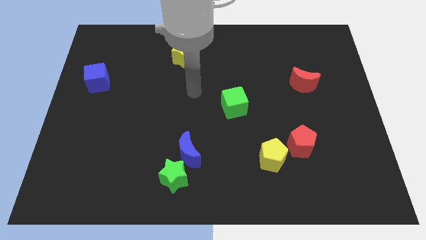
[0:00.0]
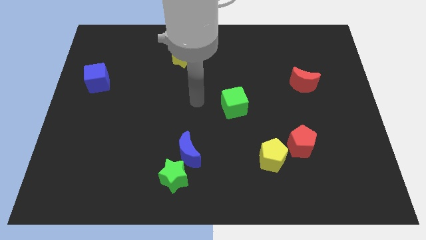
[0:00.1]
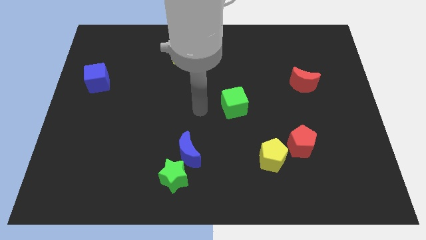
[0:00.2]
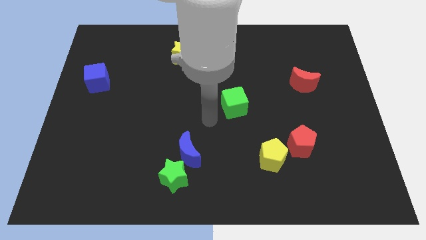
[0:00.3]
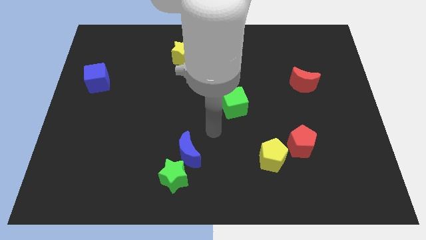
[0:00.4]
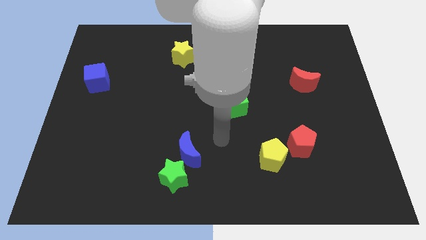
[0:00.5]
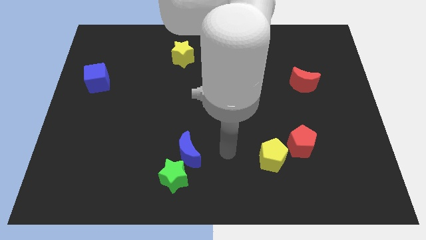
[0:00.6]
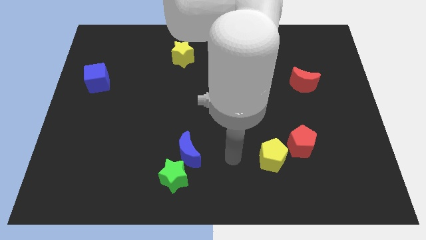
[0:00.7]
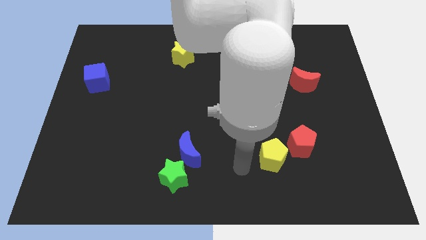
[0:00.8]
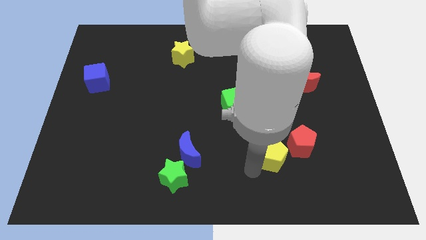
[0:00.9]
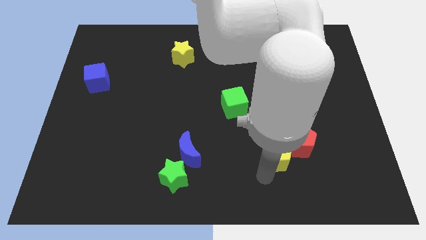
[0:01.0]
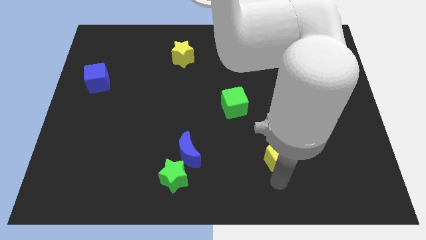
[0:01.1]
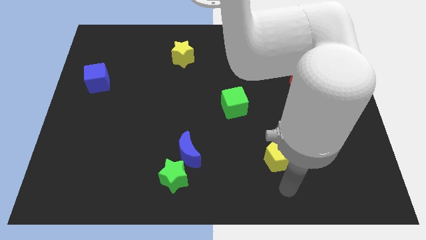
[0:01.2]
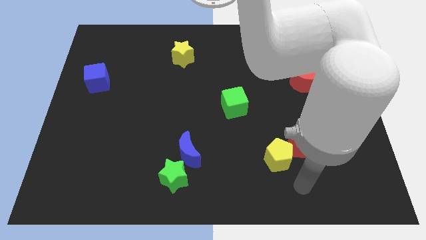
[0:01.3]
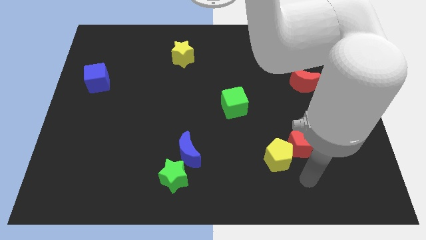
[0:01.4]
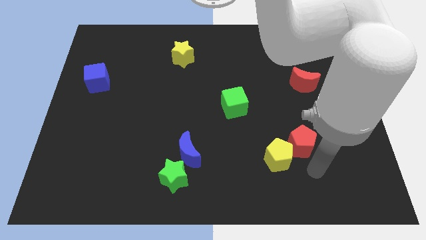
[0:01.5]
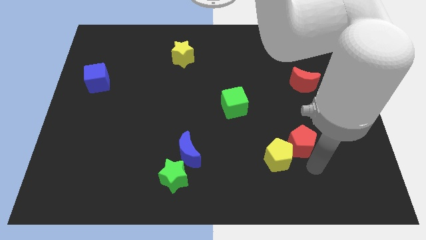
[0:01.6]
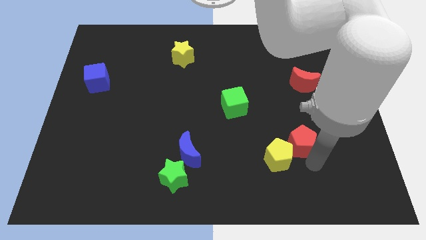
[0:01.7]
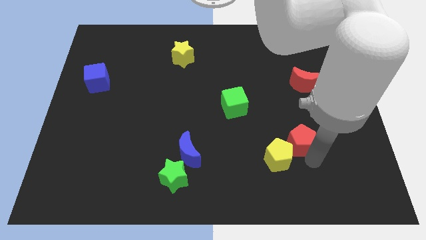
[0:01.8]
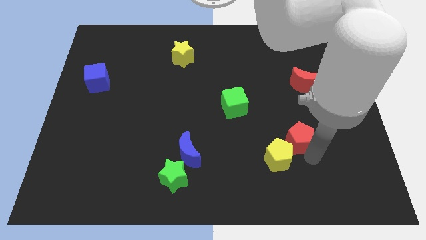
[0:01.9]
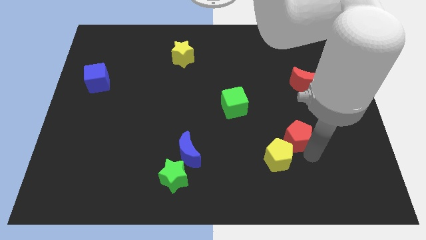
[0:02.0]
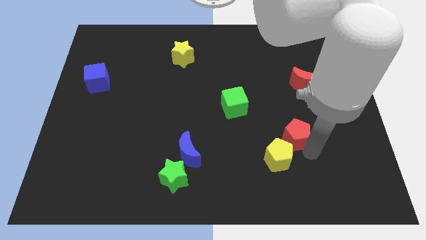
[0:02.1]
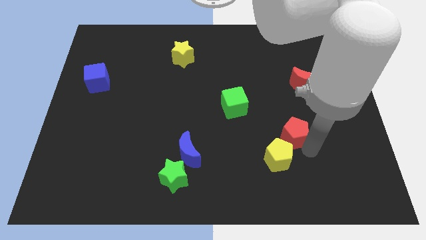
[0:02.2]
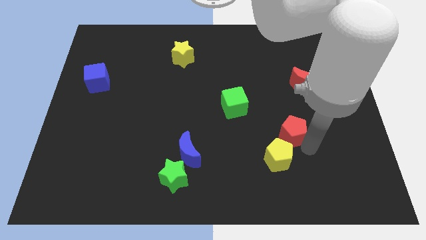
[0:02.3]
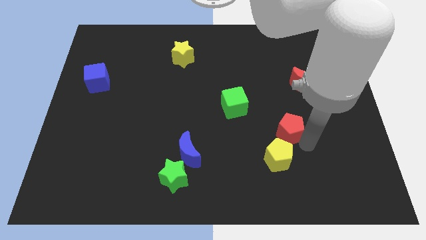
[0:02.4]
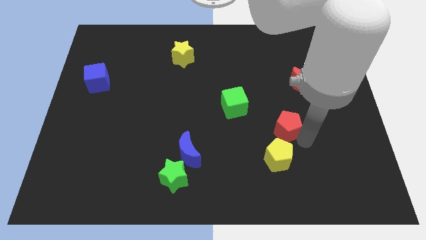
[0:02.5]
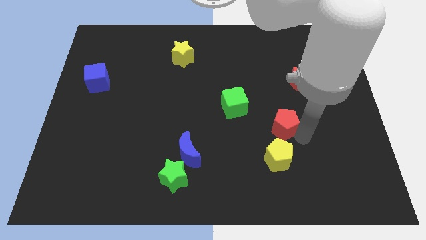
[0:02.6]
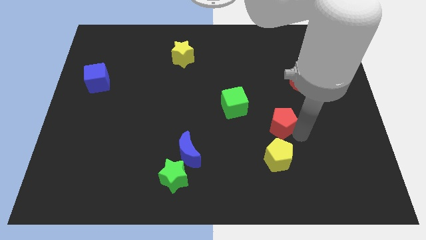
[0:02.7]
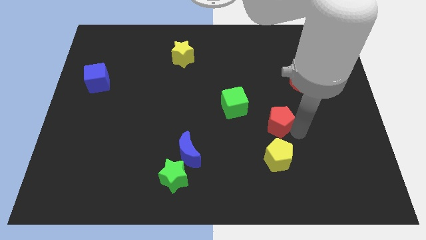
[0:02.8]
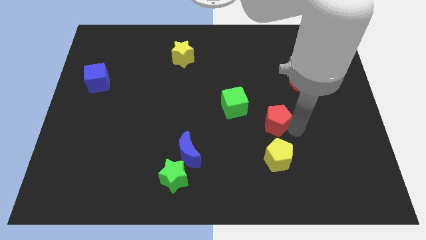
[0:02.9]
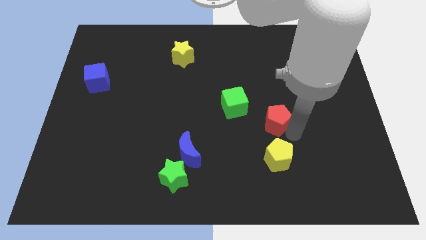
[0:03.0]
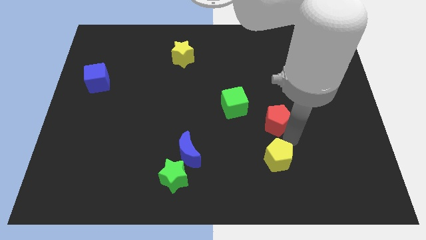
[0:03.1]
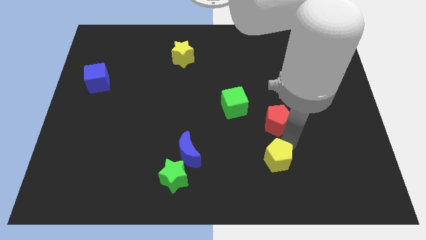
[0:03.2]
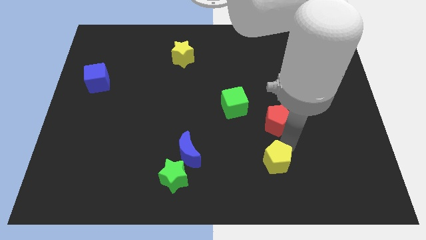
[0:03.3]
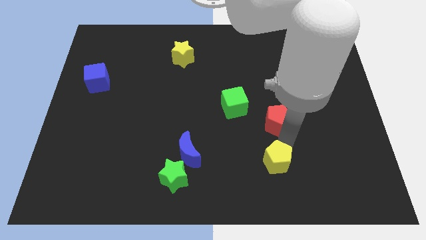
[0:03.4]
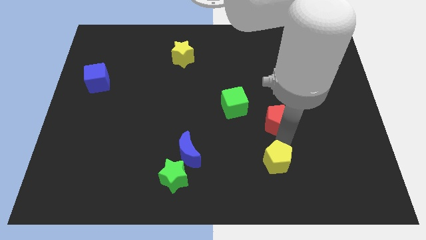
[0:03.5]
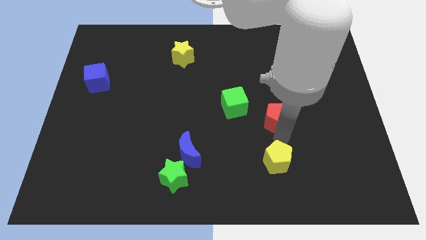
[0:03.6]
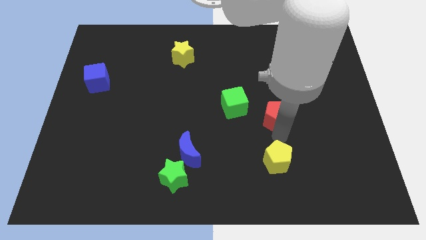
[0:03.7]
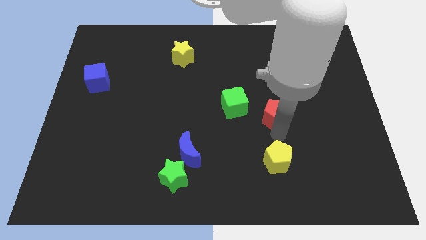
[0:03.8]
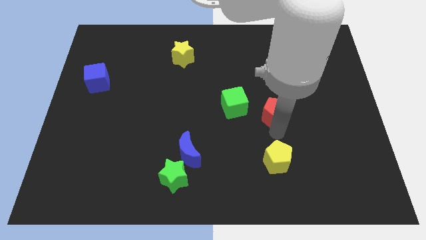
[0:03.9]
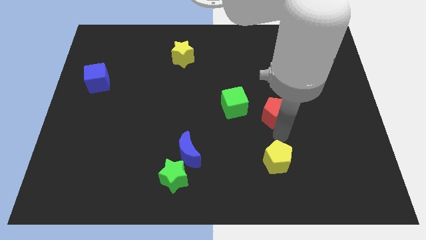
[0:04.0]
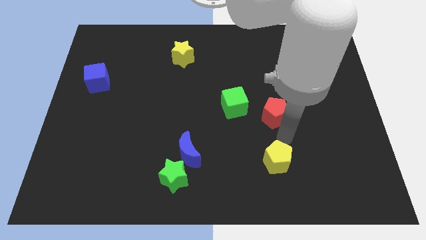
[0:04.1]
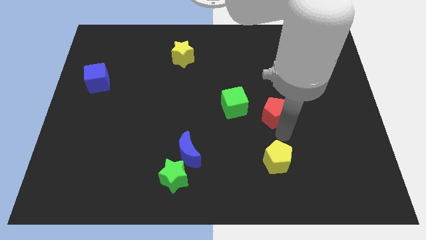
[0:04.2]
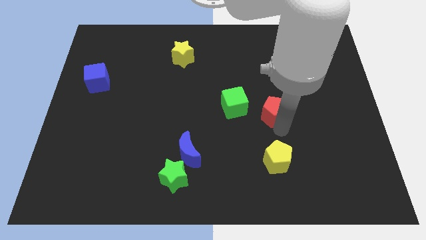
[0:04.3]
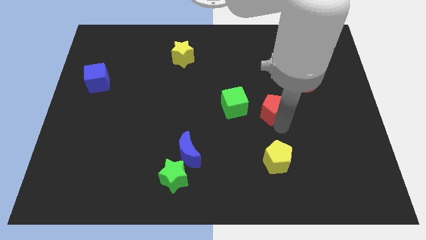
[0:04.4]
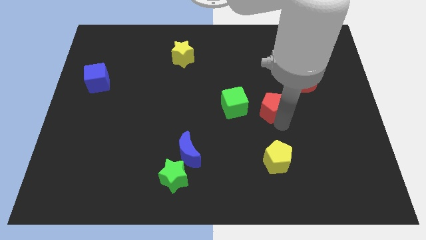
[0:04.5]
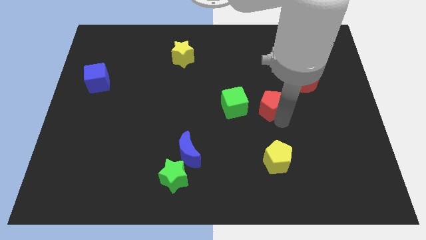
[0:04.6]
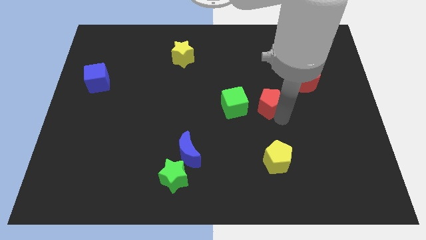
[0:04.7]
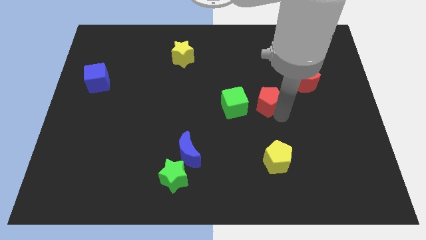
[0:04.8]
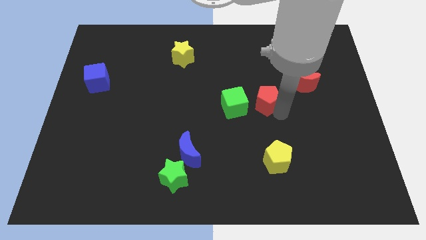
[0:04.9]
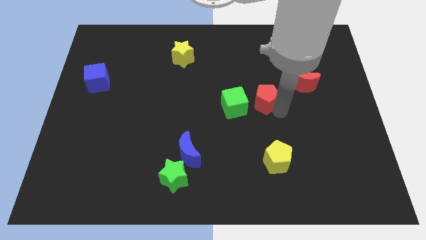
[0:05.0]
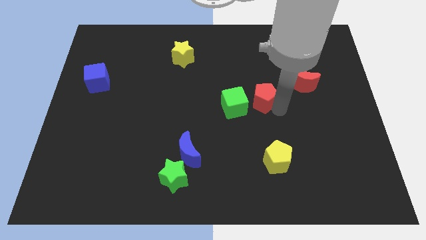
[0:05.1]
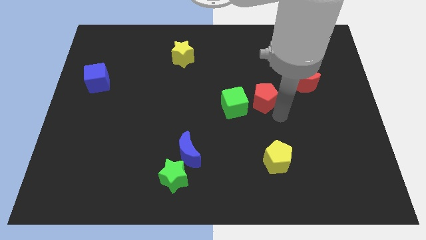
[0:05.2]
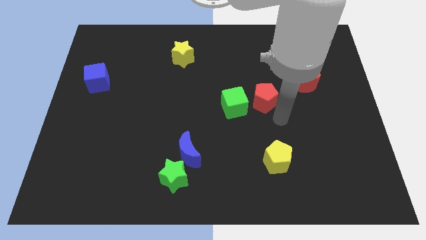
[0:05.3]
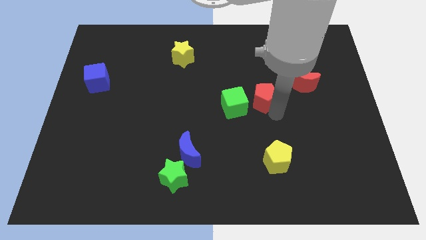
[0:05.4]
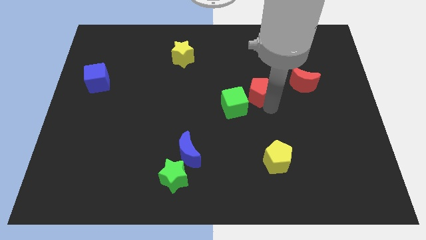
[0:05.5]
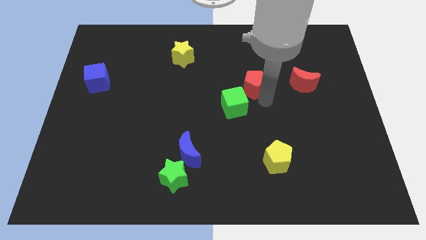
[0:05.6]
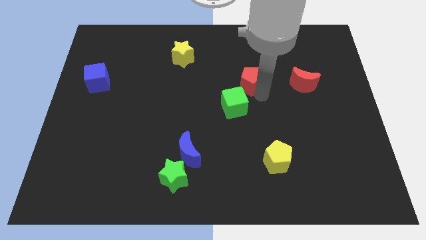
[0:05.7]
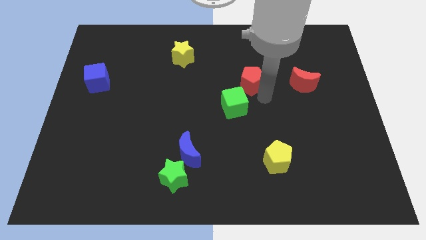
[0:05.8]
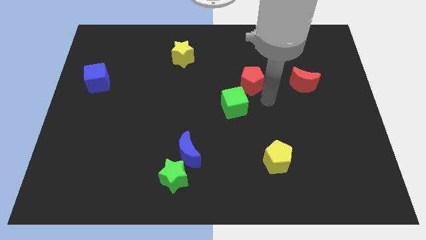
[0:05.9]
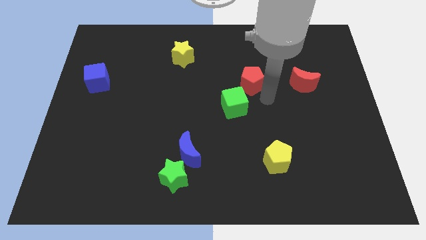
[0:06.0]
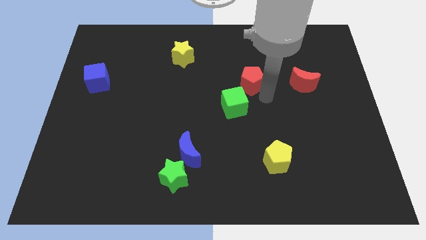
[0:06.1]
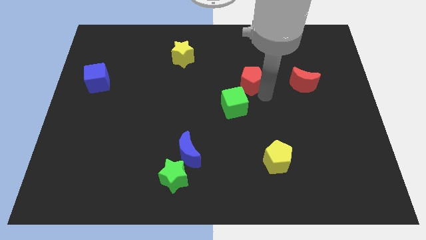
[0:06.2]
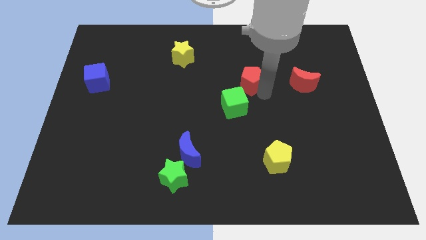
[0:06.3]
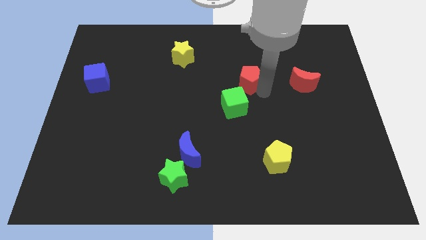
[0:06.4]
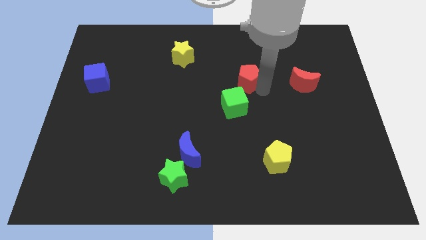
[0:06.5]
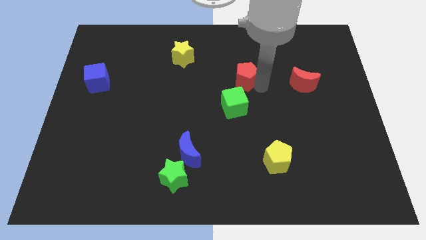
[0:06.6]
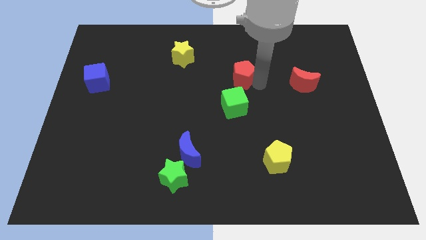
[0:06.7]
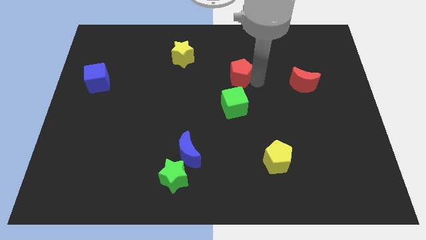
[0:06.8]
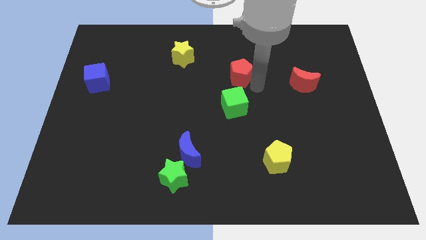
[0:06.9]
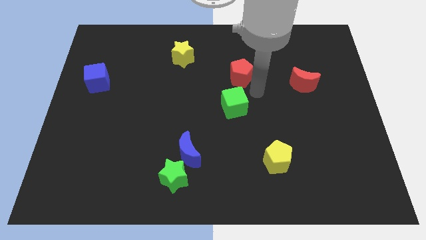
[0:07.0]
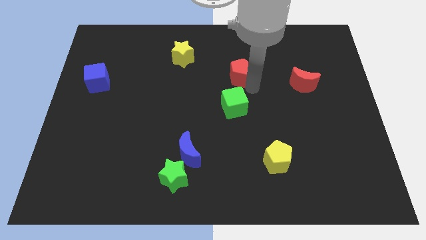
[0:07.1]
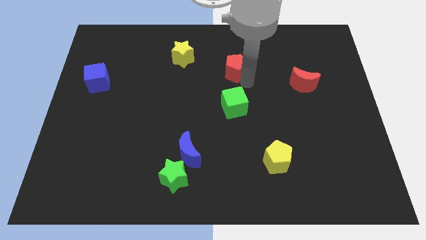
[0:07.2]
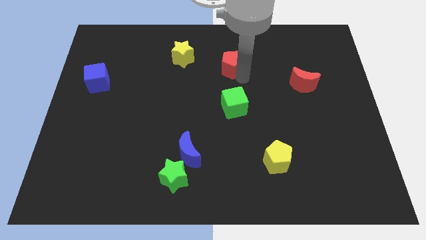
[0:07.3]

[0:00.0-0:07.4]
slide the red pentagon just right of the yellow star
